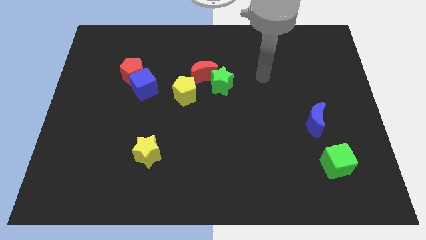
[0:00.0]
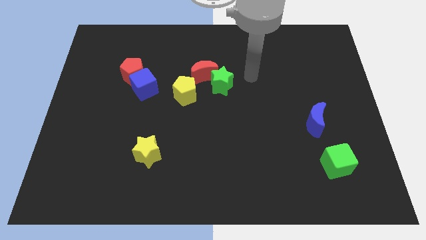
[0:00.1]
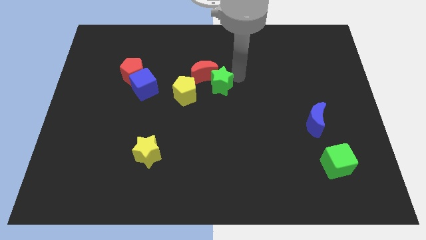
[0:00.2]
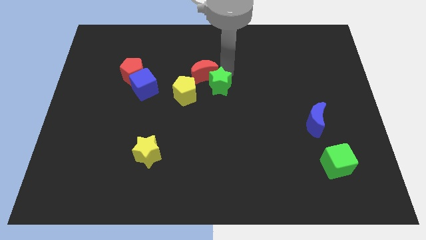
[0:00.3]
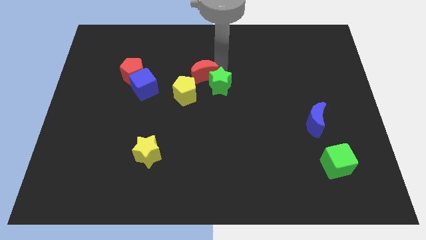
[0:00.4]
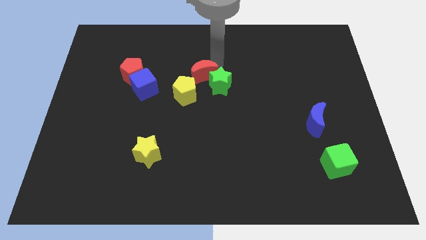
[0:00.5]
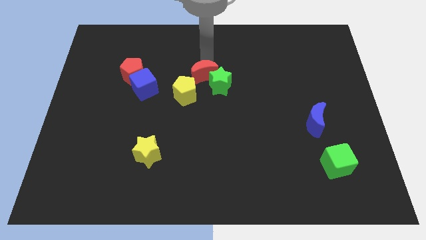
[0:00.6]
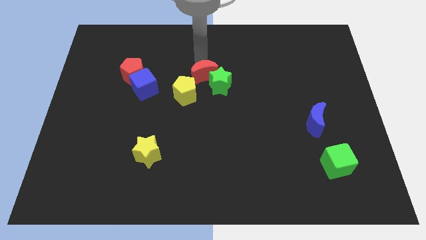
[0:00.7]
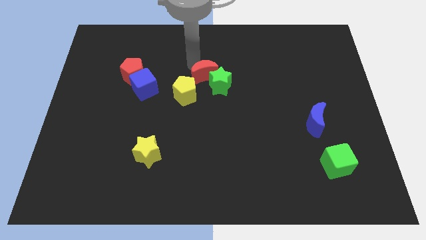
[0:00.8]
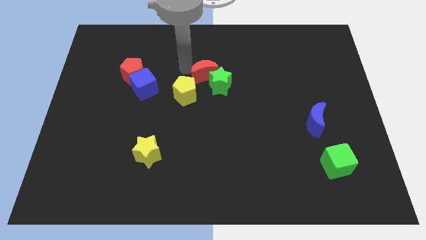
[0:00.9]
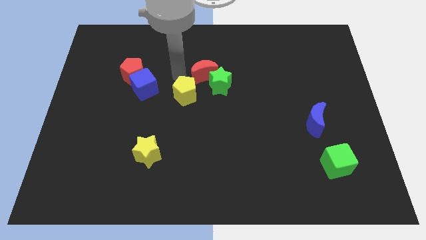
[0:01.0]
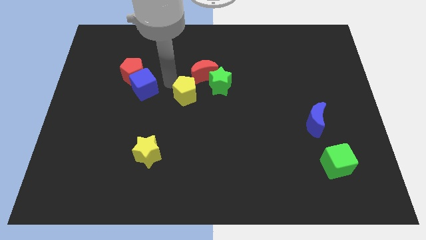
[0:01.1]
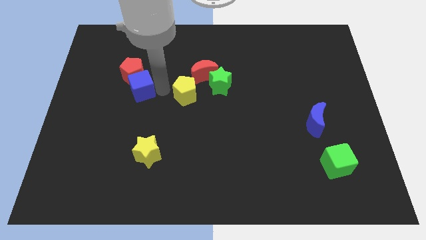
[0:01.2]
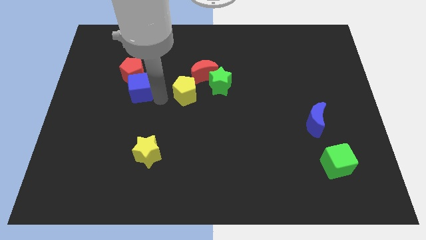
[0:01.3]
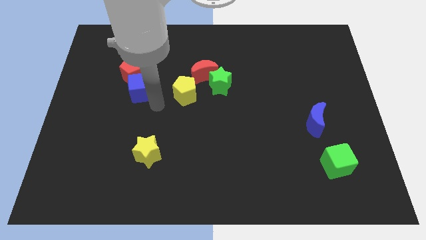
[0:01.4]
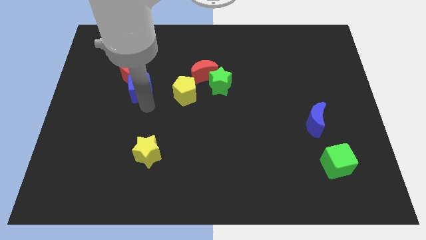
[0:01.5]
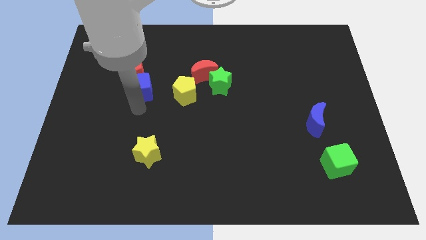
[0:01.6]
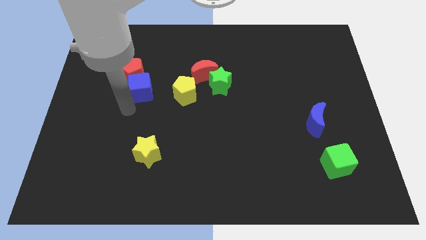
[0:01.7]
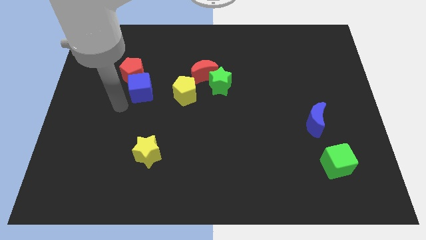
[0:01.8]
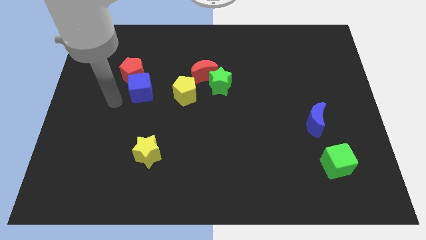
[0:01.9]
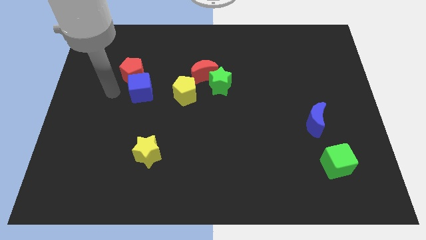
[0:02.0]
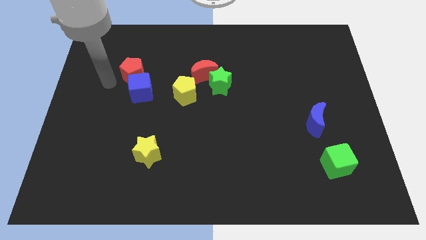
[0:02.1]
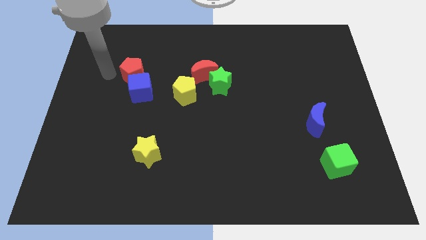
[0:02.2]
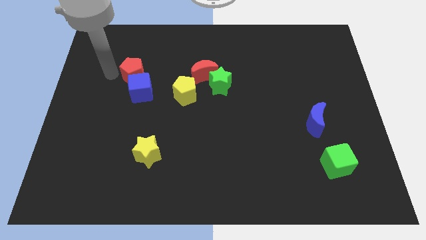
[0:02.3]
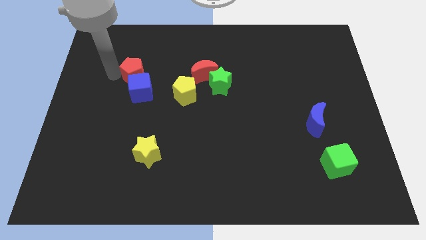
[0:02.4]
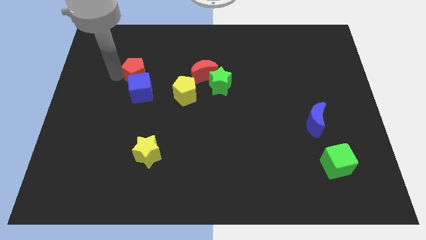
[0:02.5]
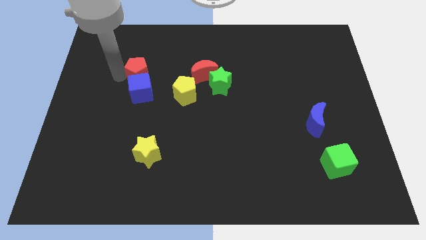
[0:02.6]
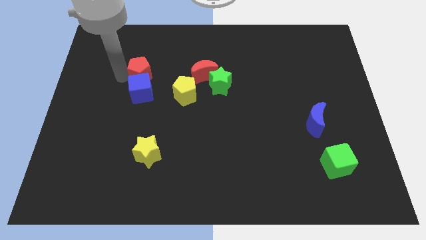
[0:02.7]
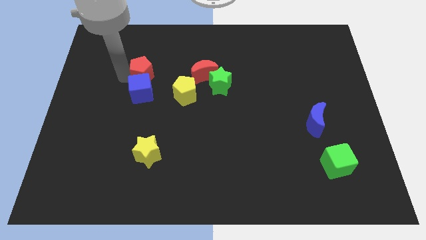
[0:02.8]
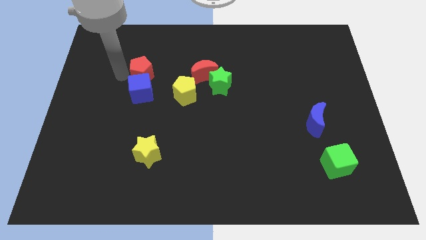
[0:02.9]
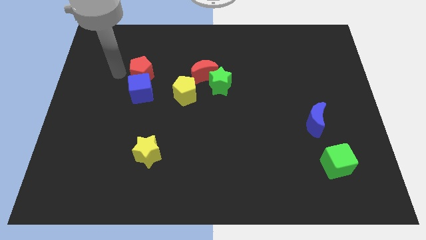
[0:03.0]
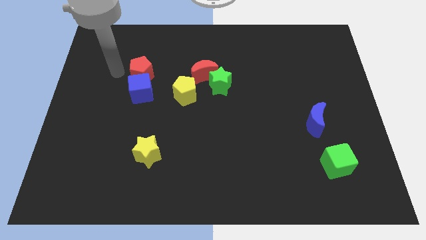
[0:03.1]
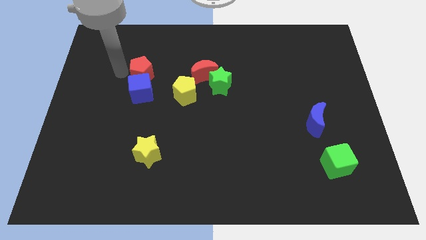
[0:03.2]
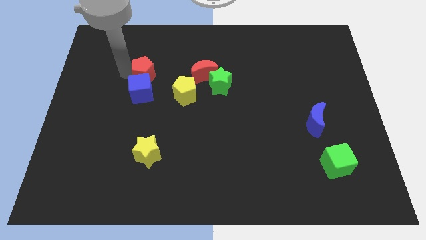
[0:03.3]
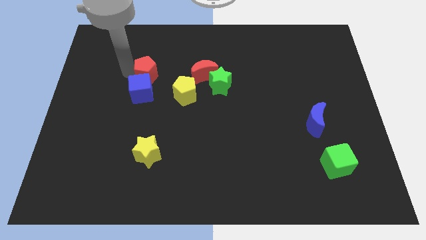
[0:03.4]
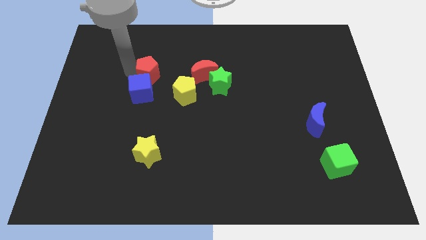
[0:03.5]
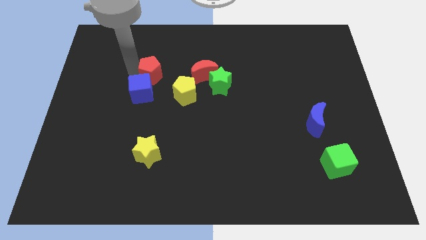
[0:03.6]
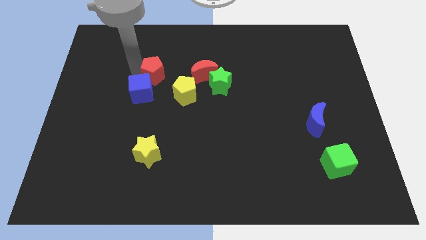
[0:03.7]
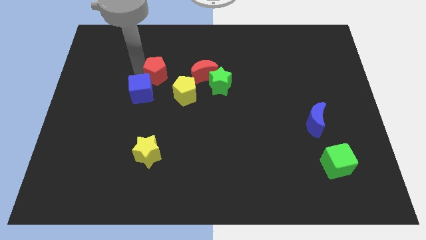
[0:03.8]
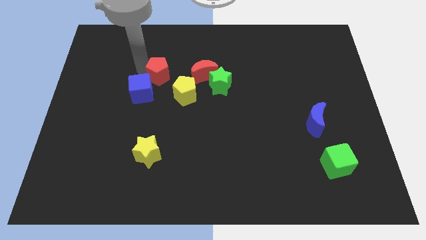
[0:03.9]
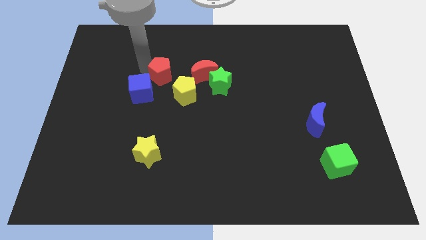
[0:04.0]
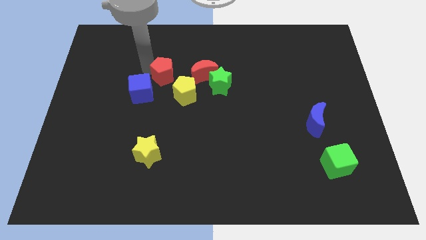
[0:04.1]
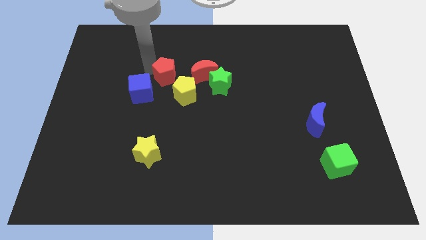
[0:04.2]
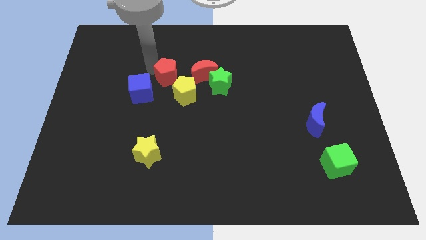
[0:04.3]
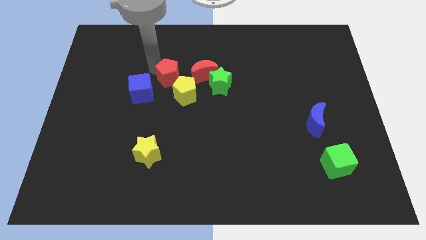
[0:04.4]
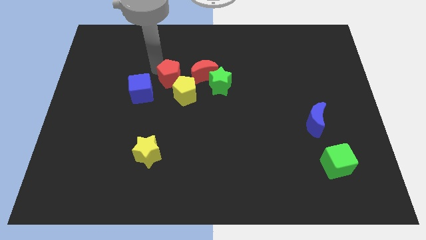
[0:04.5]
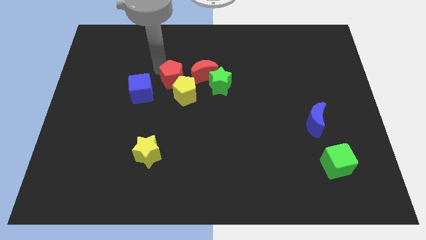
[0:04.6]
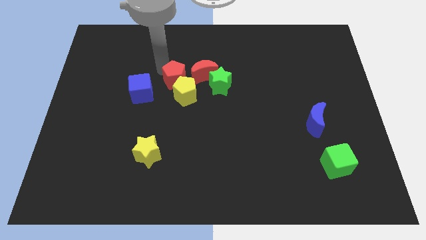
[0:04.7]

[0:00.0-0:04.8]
put the red pentagon next to the yellow pentagon
